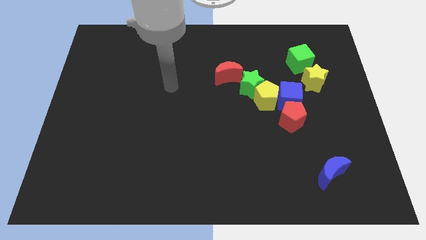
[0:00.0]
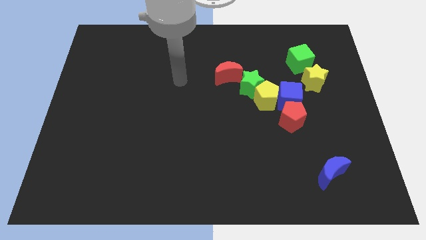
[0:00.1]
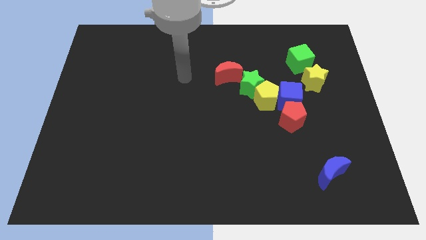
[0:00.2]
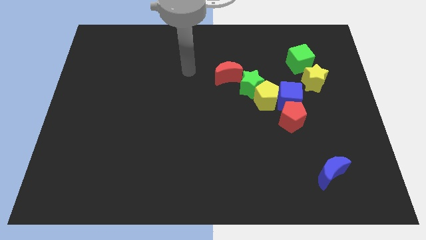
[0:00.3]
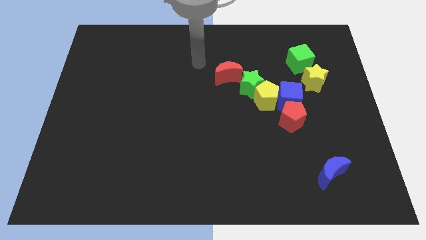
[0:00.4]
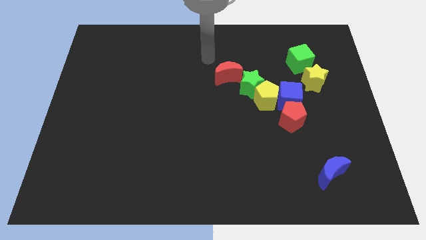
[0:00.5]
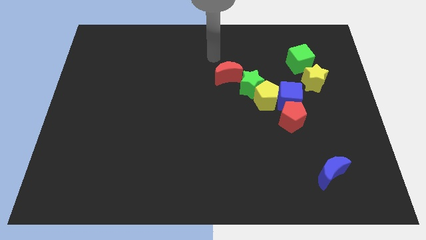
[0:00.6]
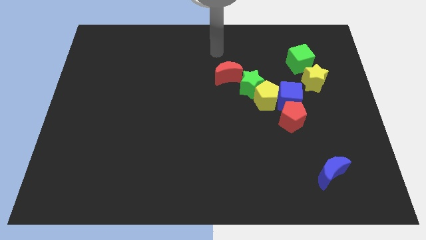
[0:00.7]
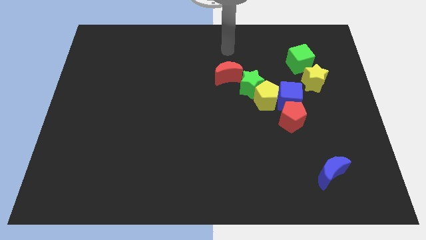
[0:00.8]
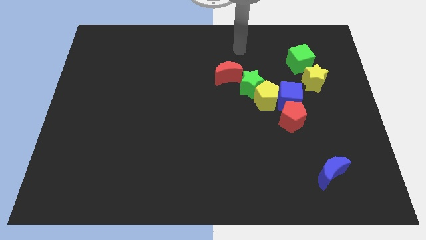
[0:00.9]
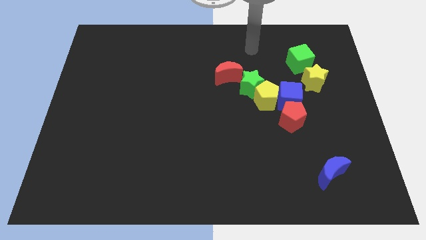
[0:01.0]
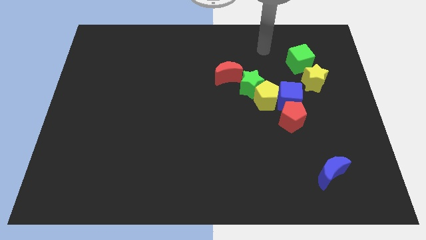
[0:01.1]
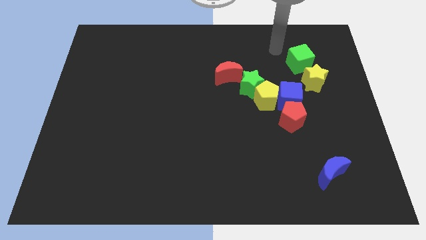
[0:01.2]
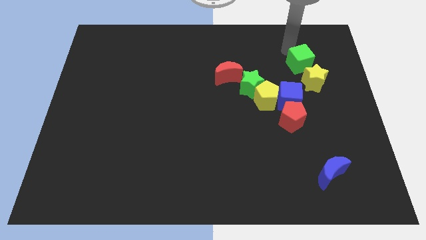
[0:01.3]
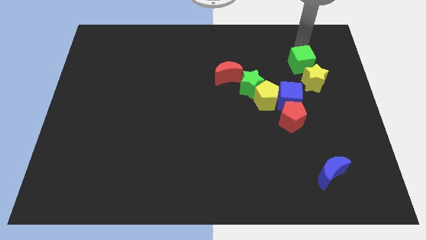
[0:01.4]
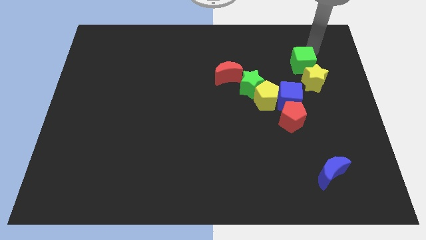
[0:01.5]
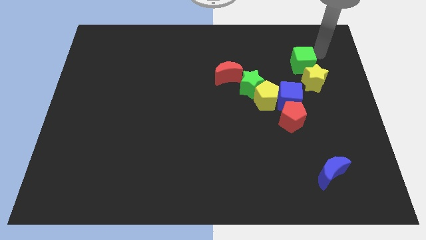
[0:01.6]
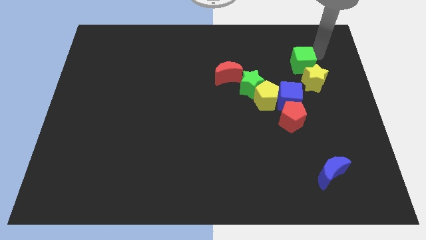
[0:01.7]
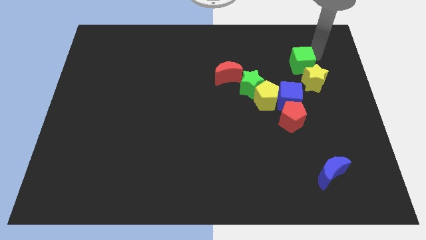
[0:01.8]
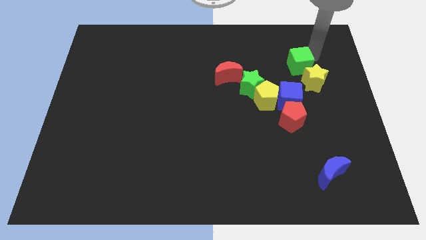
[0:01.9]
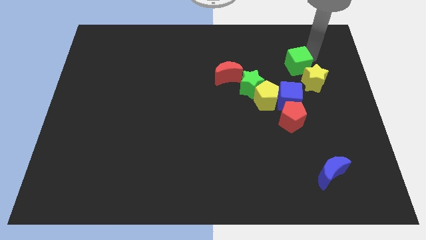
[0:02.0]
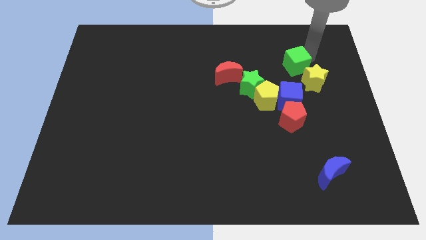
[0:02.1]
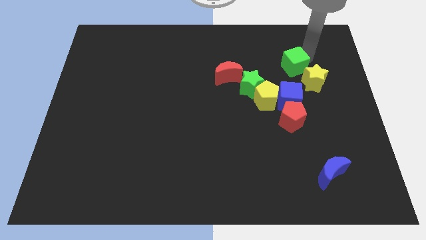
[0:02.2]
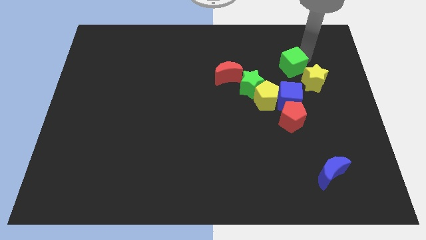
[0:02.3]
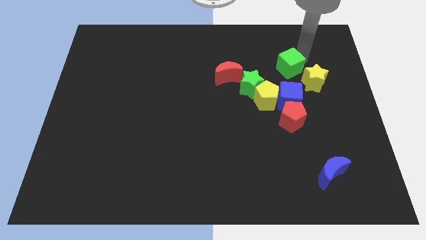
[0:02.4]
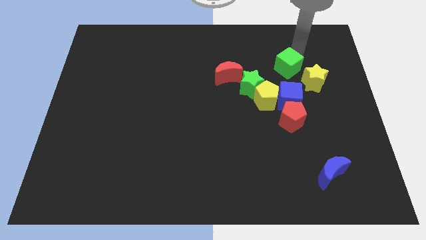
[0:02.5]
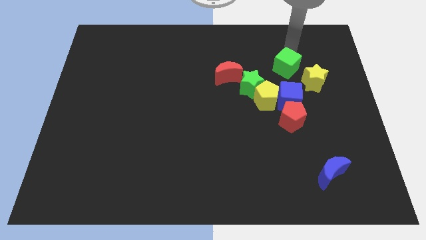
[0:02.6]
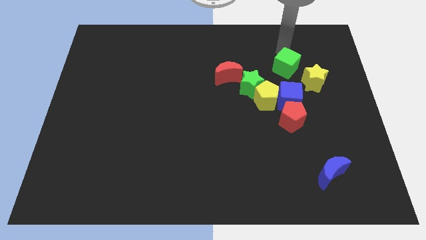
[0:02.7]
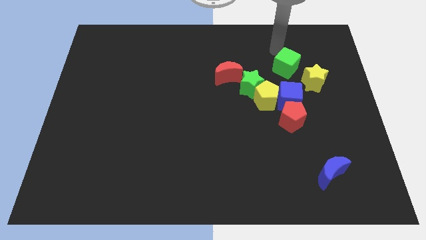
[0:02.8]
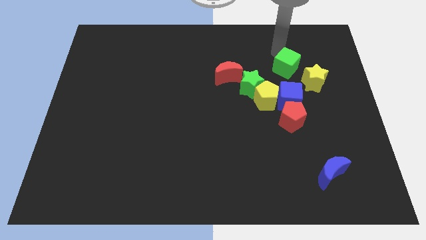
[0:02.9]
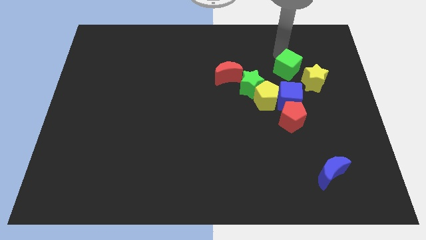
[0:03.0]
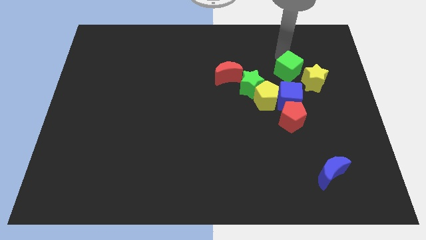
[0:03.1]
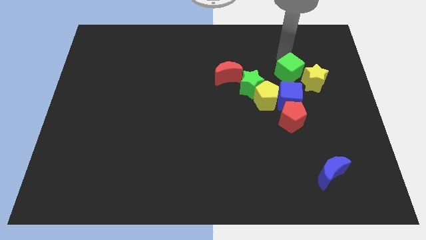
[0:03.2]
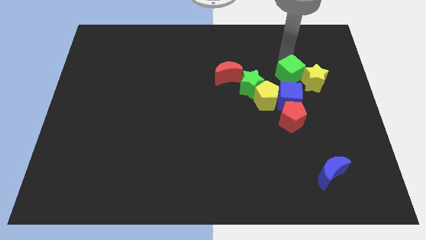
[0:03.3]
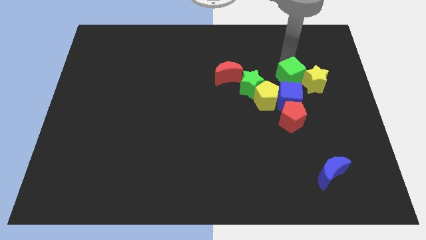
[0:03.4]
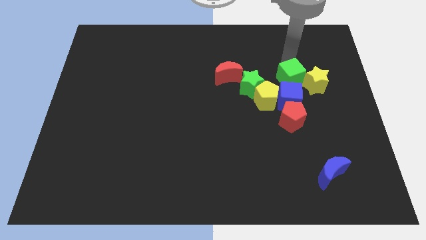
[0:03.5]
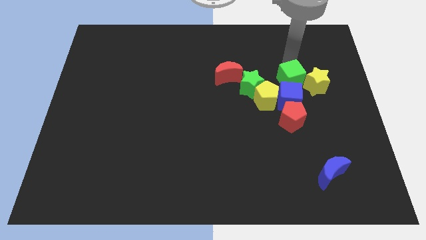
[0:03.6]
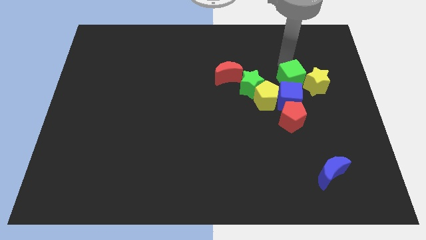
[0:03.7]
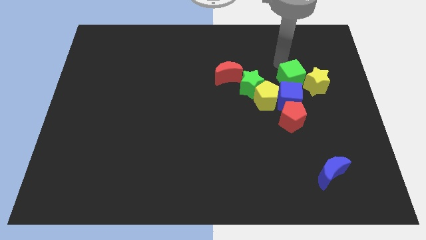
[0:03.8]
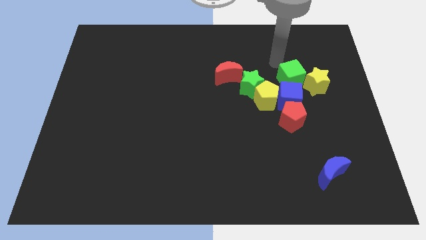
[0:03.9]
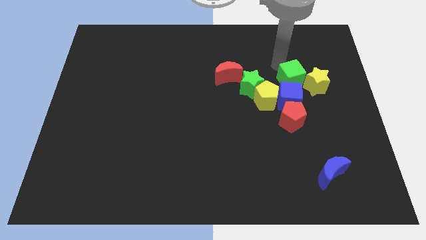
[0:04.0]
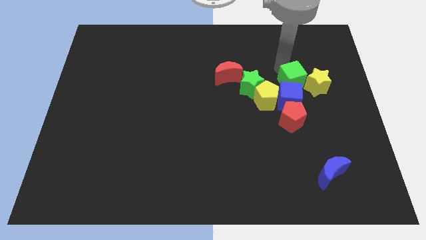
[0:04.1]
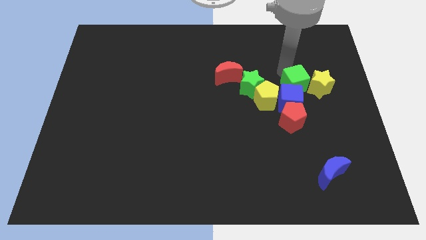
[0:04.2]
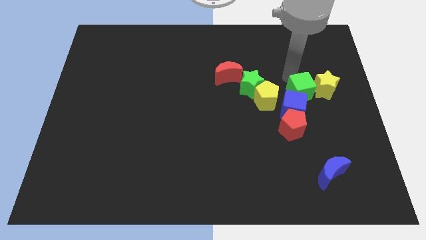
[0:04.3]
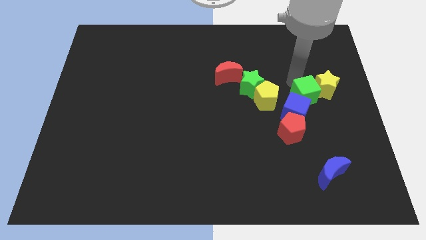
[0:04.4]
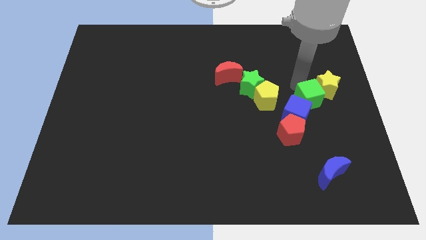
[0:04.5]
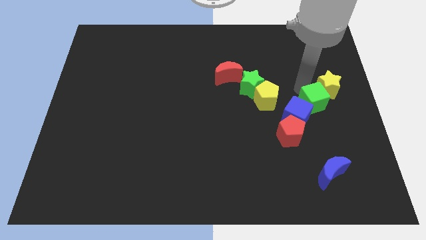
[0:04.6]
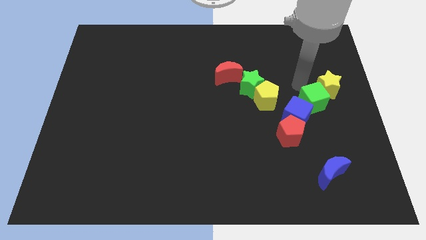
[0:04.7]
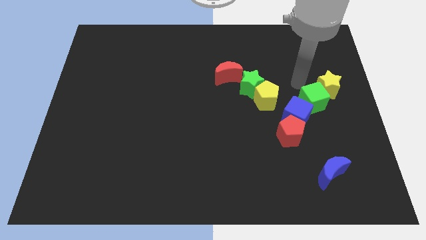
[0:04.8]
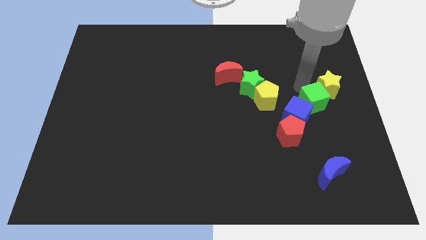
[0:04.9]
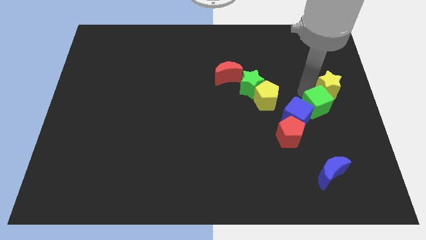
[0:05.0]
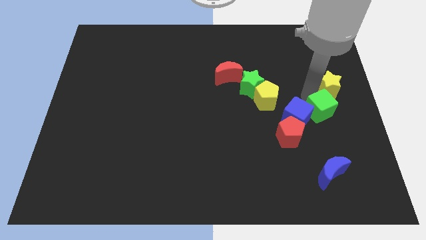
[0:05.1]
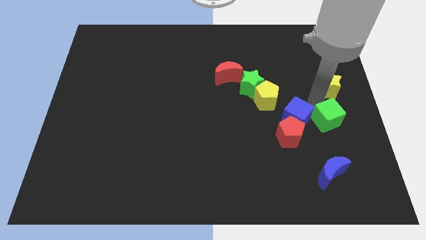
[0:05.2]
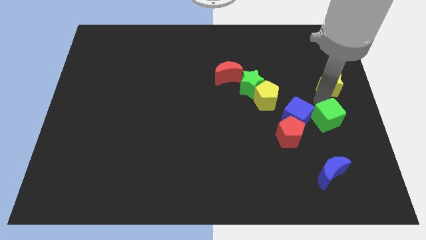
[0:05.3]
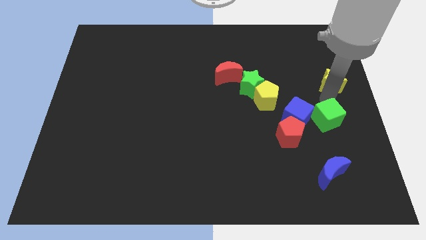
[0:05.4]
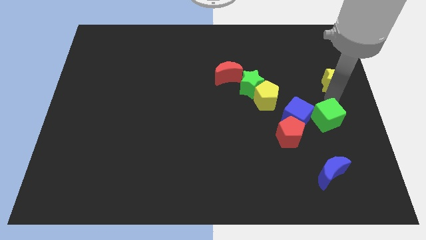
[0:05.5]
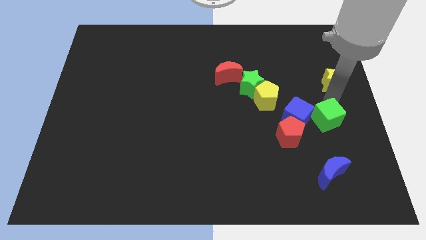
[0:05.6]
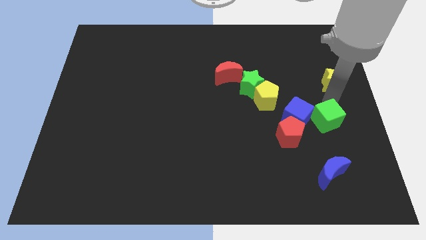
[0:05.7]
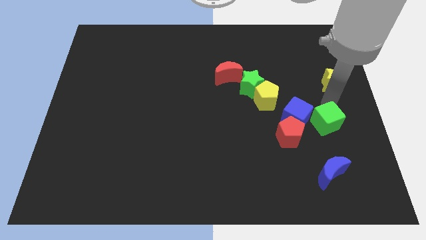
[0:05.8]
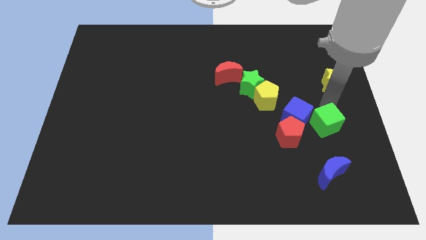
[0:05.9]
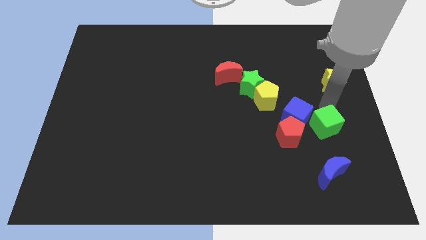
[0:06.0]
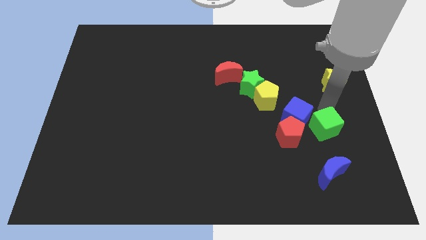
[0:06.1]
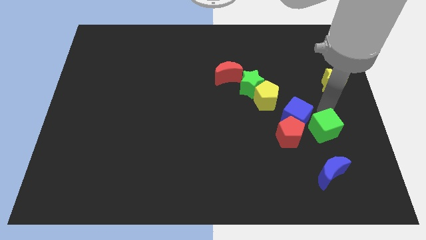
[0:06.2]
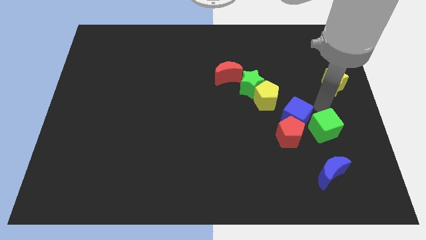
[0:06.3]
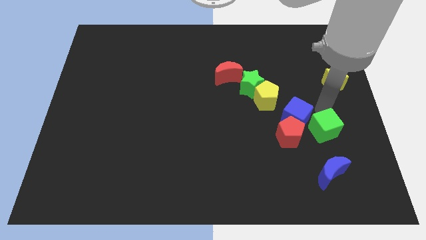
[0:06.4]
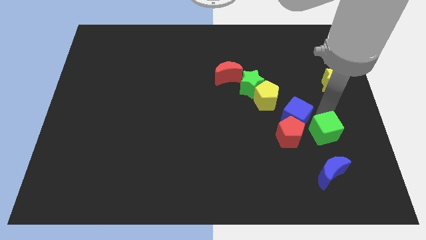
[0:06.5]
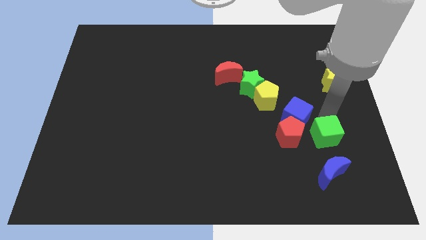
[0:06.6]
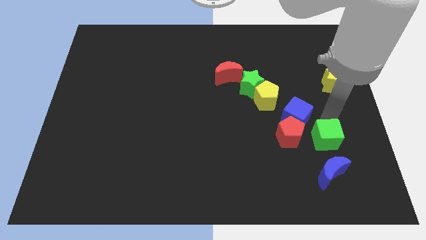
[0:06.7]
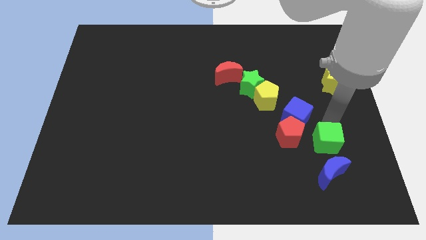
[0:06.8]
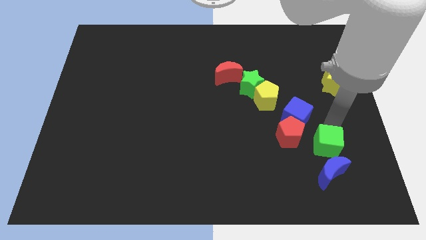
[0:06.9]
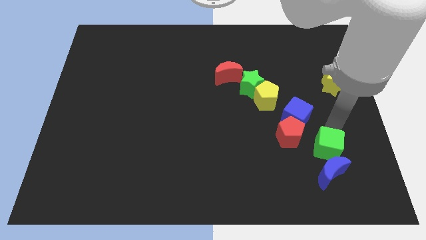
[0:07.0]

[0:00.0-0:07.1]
slide the green cube next to the blue moon
